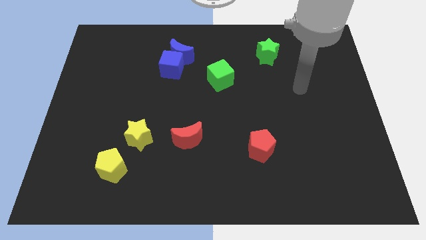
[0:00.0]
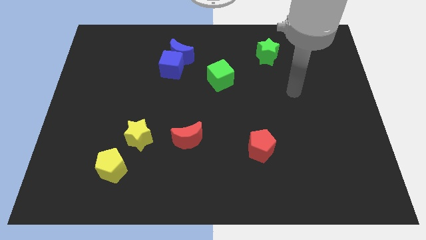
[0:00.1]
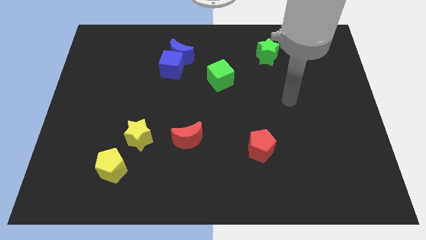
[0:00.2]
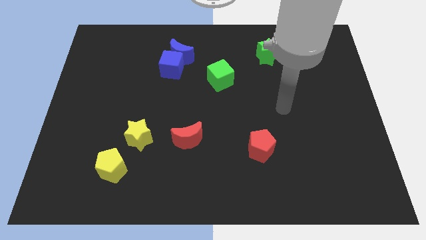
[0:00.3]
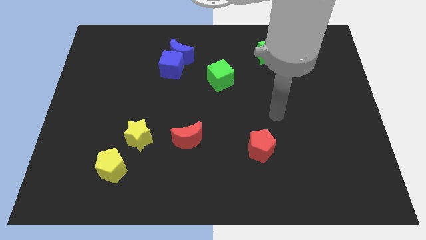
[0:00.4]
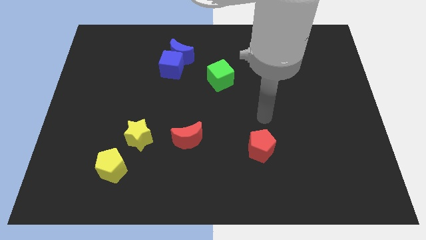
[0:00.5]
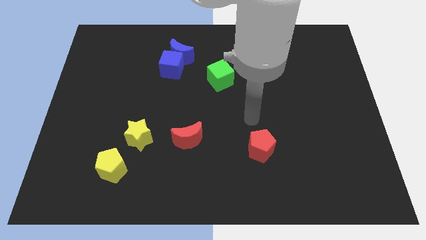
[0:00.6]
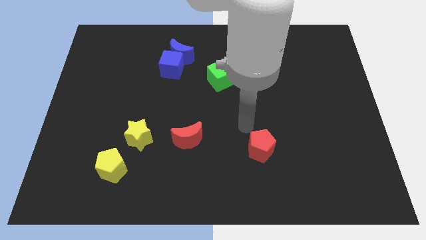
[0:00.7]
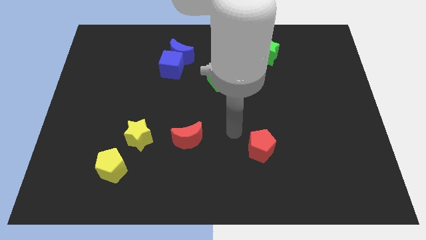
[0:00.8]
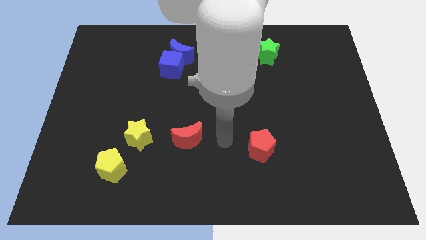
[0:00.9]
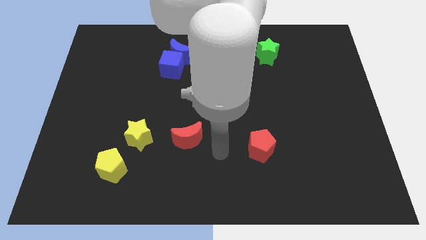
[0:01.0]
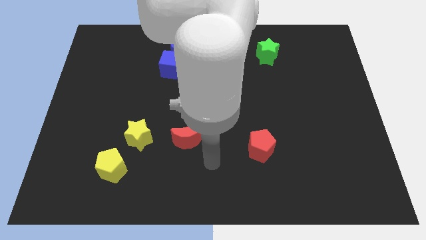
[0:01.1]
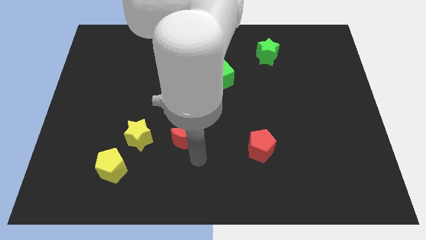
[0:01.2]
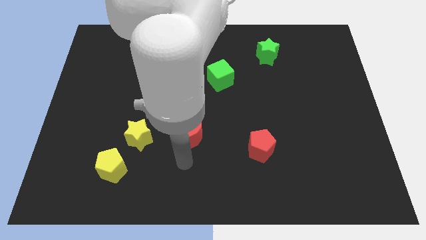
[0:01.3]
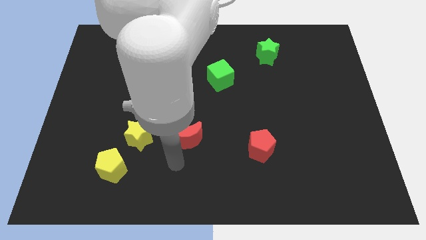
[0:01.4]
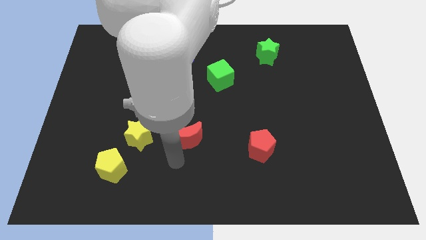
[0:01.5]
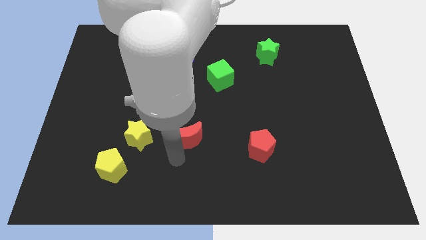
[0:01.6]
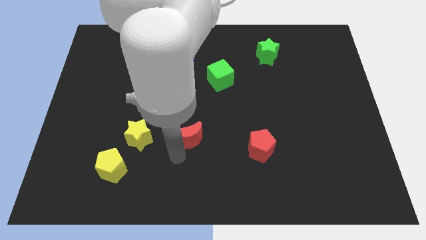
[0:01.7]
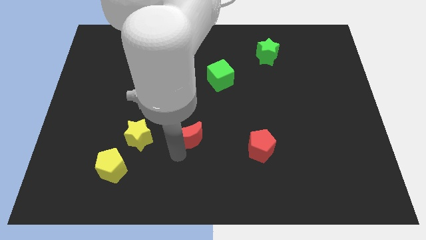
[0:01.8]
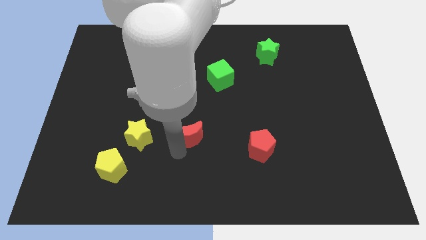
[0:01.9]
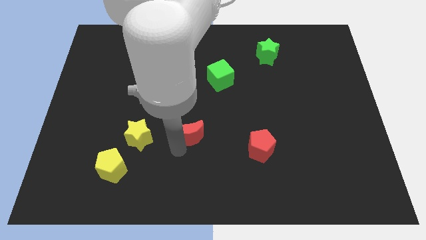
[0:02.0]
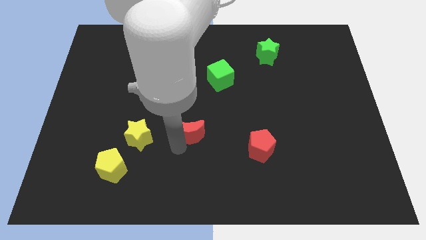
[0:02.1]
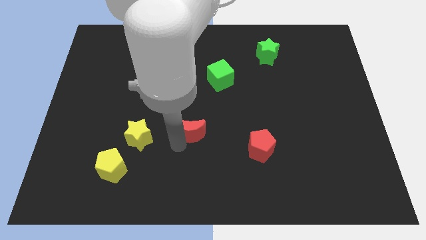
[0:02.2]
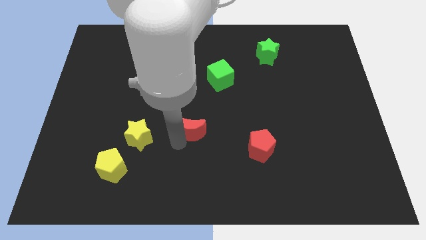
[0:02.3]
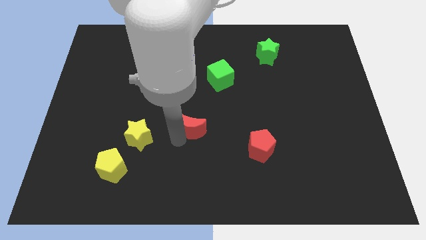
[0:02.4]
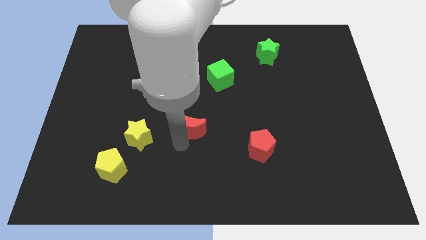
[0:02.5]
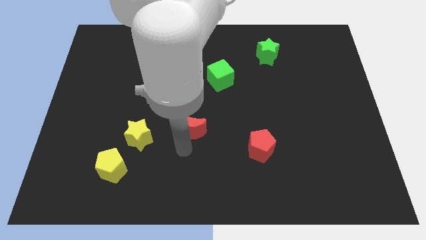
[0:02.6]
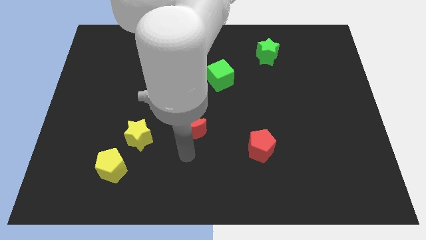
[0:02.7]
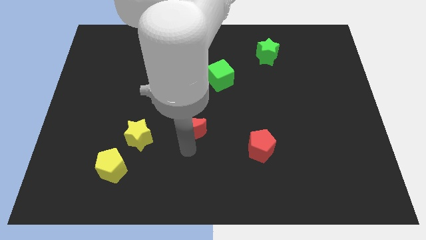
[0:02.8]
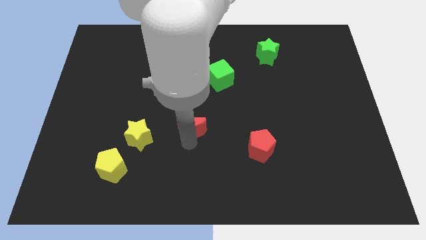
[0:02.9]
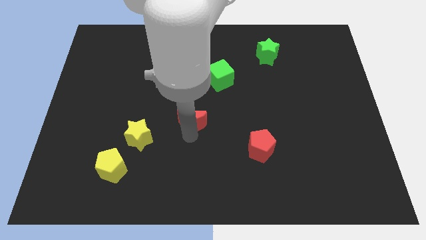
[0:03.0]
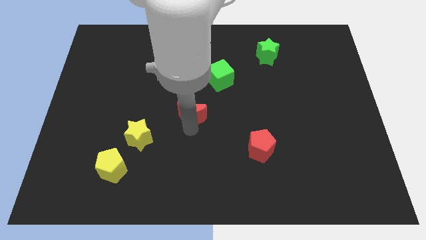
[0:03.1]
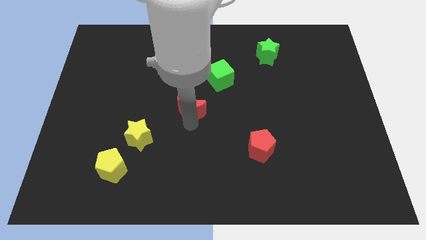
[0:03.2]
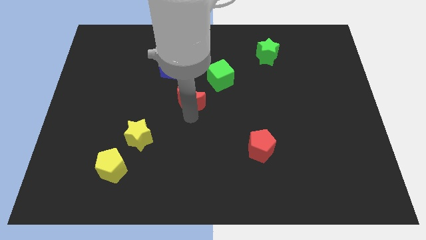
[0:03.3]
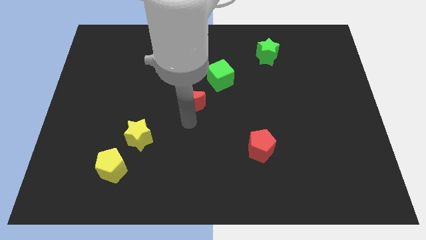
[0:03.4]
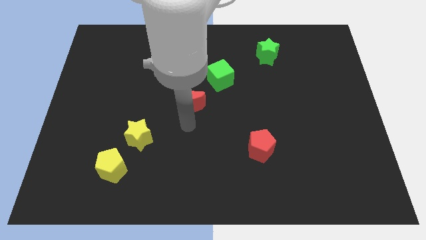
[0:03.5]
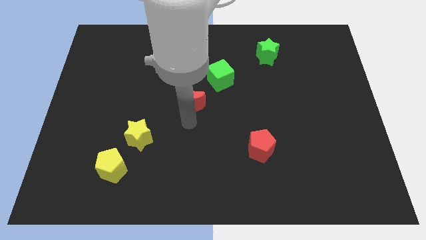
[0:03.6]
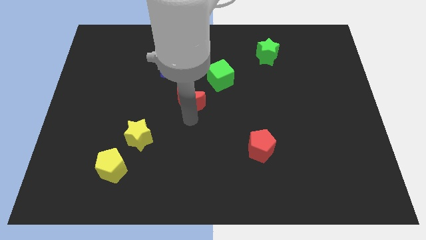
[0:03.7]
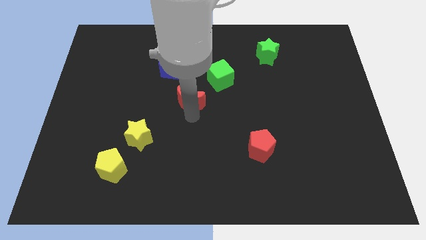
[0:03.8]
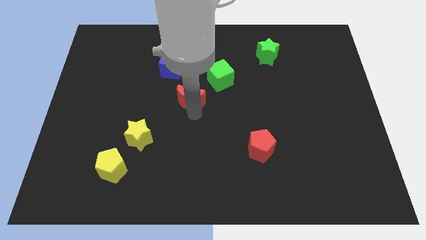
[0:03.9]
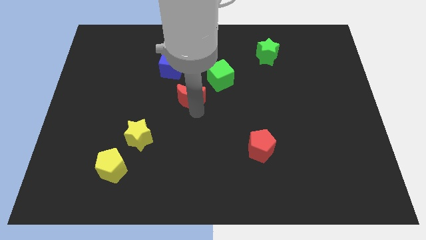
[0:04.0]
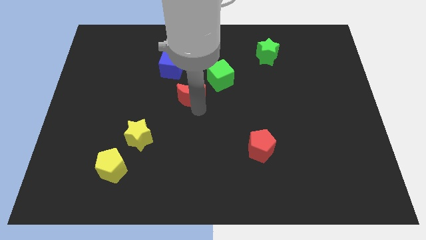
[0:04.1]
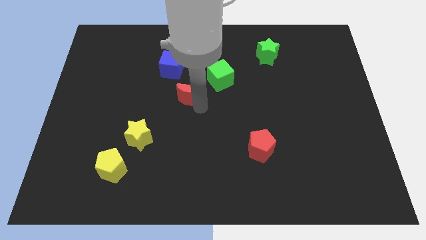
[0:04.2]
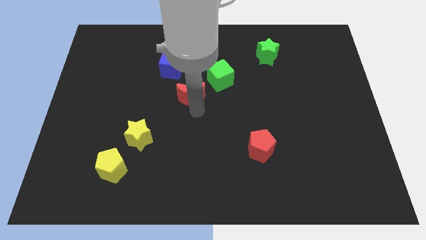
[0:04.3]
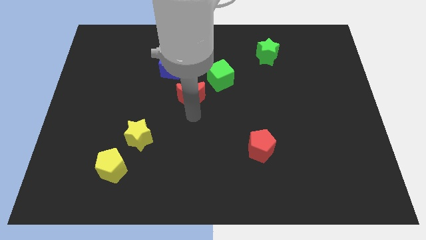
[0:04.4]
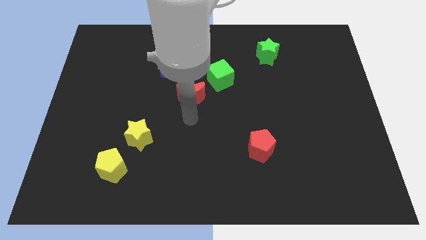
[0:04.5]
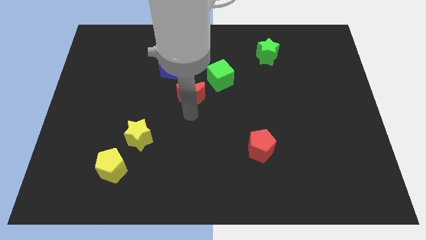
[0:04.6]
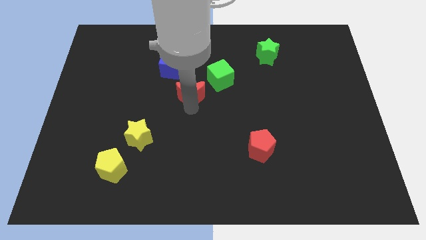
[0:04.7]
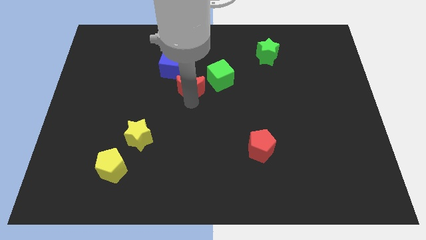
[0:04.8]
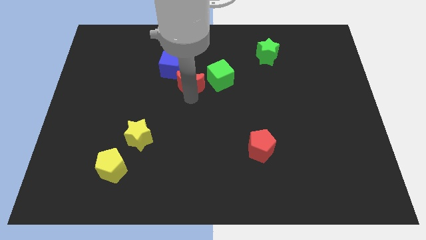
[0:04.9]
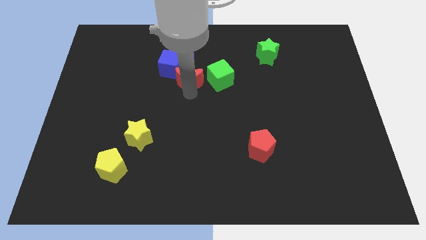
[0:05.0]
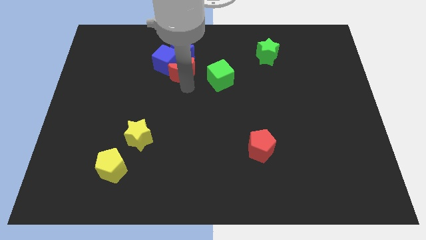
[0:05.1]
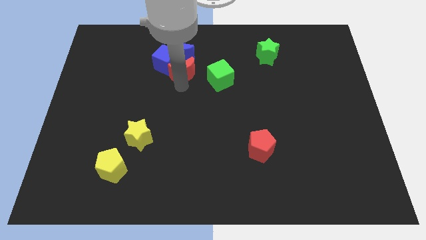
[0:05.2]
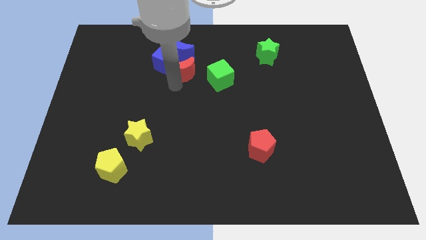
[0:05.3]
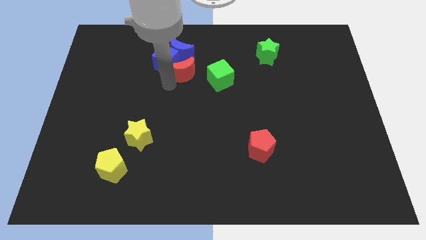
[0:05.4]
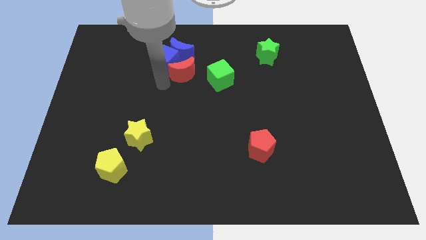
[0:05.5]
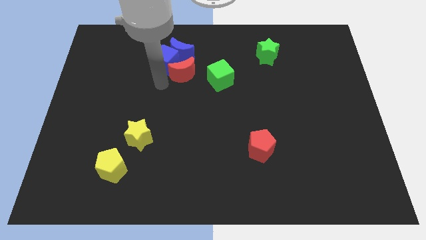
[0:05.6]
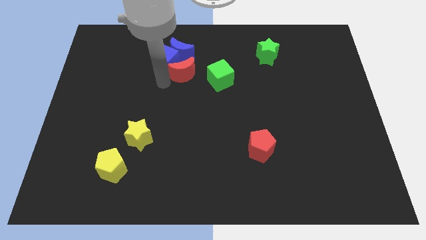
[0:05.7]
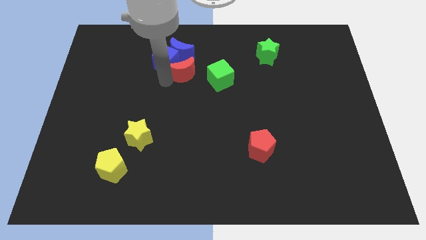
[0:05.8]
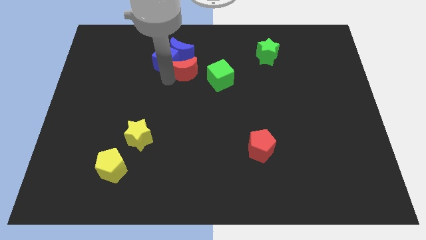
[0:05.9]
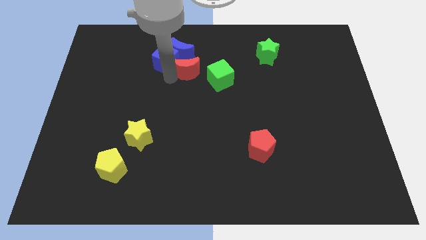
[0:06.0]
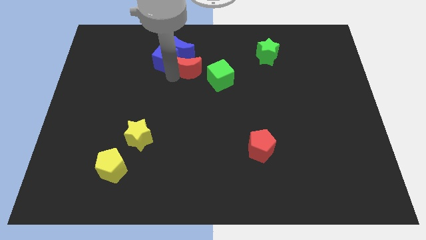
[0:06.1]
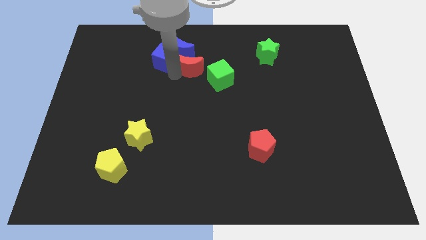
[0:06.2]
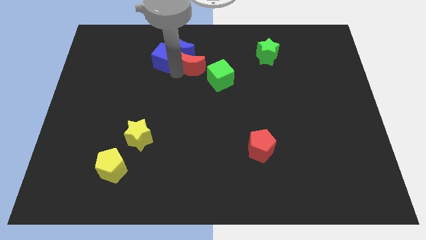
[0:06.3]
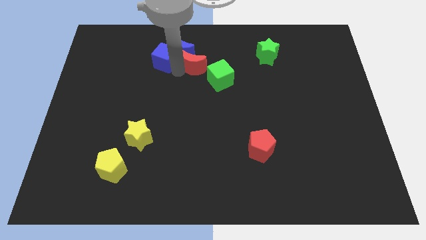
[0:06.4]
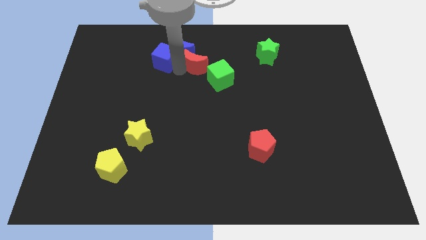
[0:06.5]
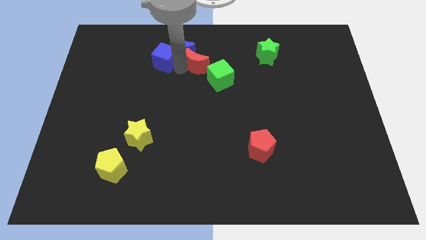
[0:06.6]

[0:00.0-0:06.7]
slide the red moon just right of the blue moon

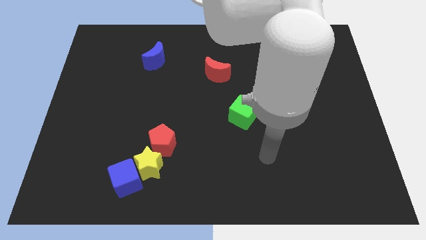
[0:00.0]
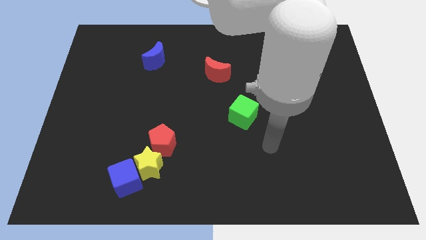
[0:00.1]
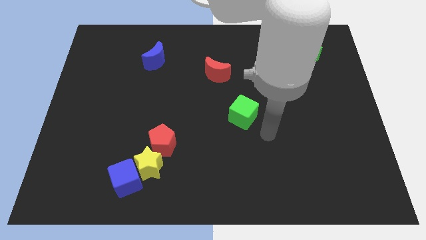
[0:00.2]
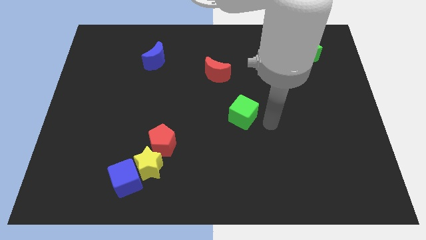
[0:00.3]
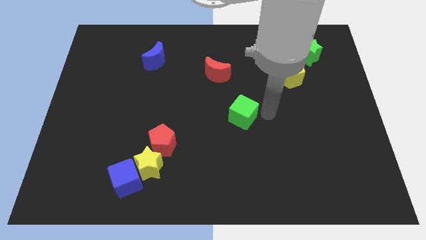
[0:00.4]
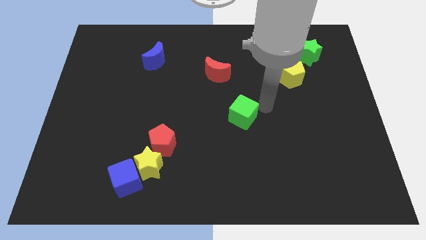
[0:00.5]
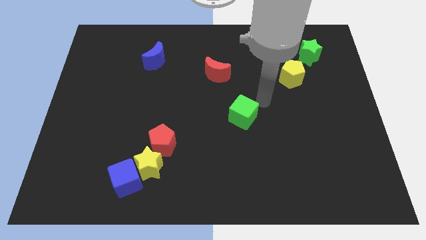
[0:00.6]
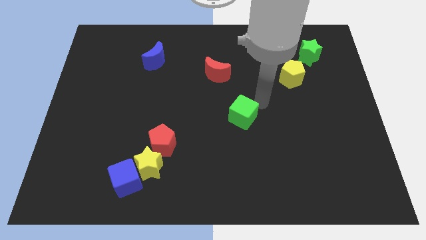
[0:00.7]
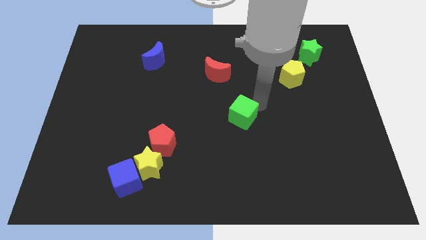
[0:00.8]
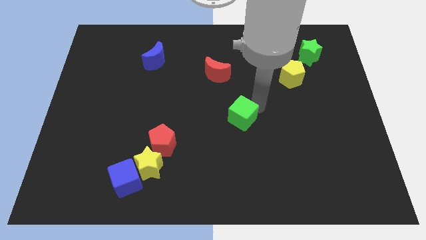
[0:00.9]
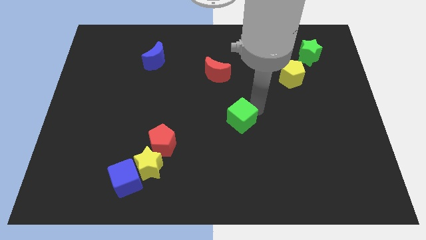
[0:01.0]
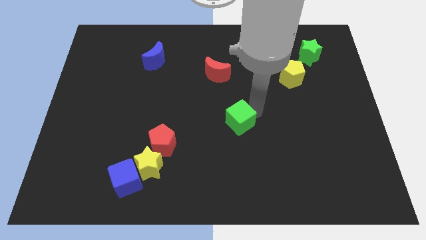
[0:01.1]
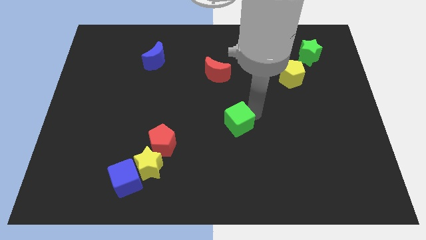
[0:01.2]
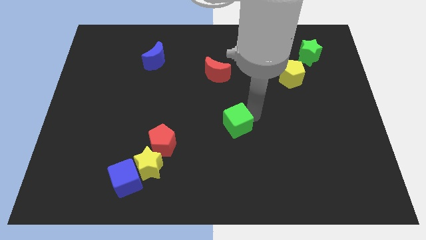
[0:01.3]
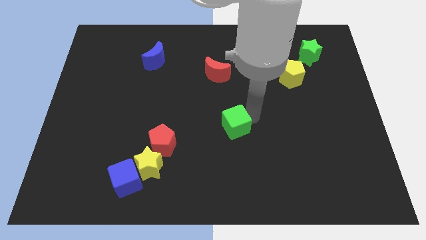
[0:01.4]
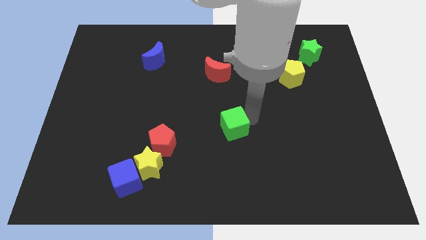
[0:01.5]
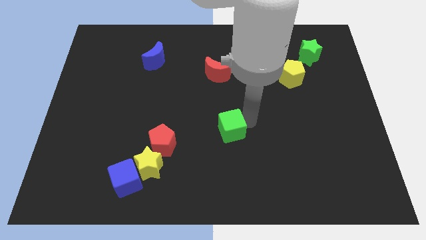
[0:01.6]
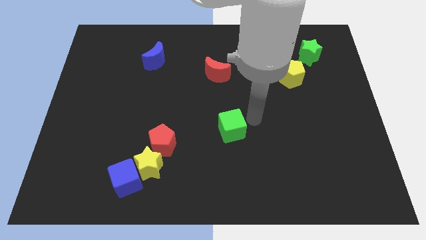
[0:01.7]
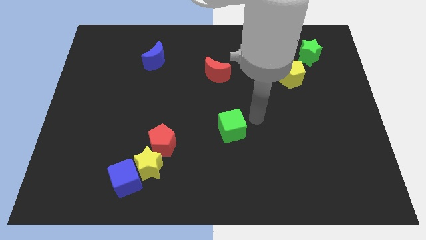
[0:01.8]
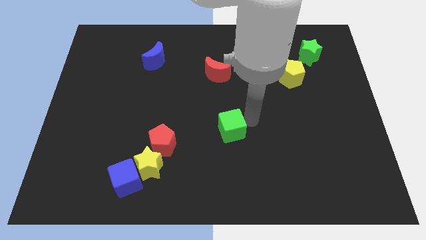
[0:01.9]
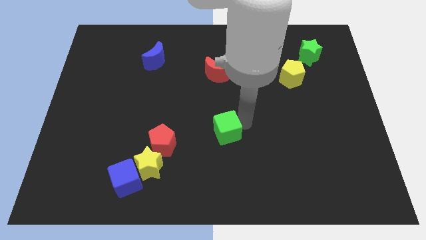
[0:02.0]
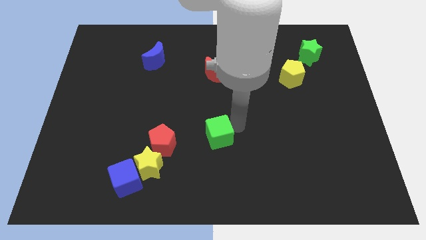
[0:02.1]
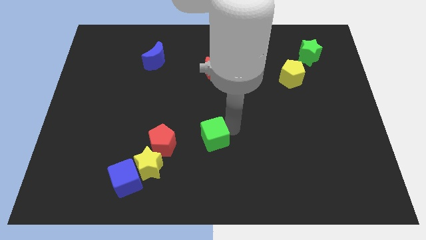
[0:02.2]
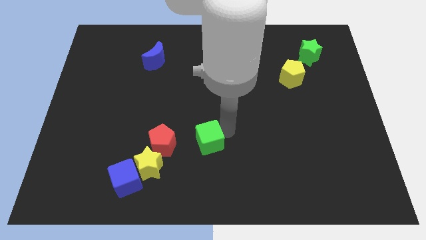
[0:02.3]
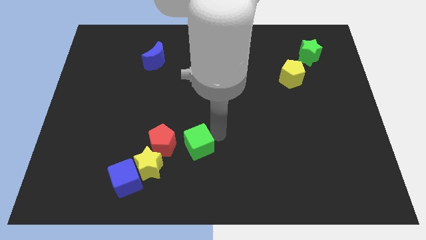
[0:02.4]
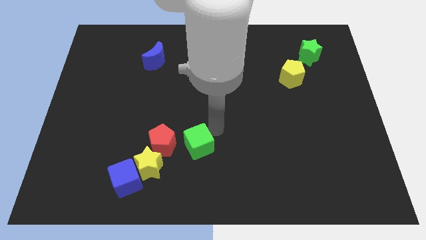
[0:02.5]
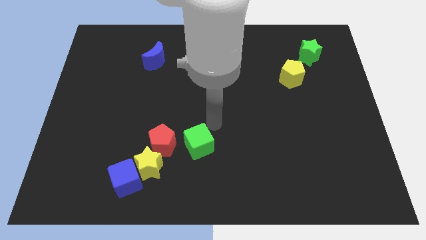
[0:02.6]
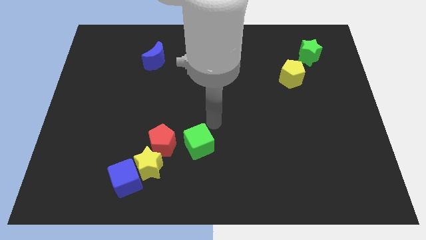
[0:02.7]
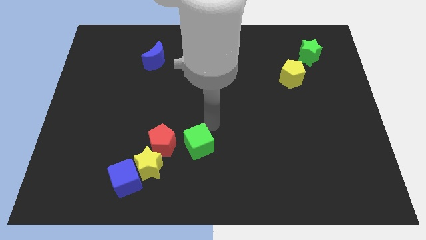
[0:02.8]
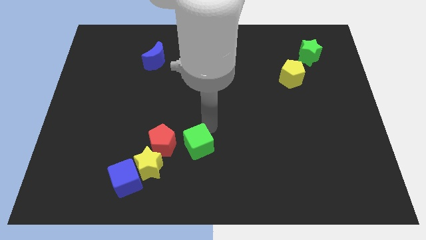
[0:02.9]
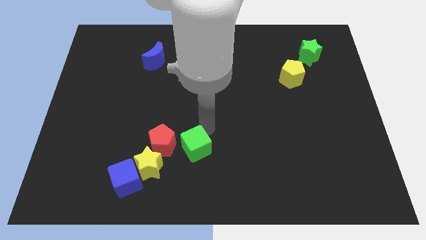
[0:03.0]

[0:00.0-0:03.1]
slide the green cube to the bottom right of the red pentagon
